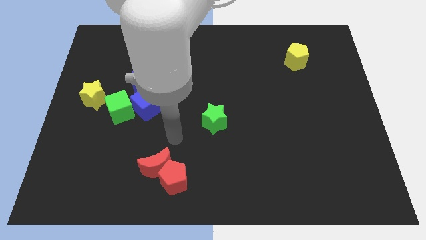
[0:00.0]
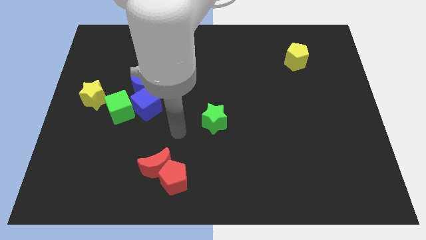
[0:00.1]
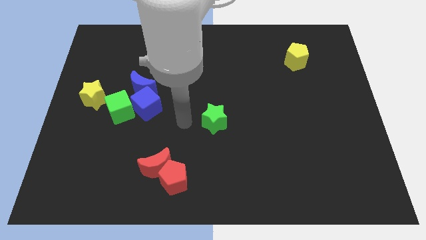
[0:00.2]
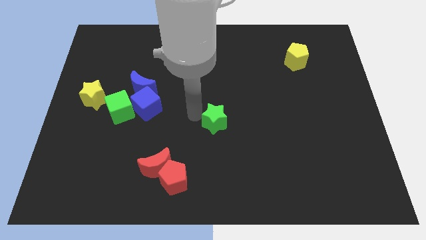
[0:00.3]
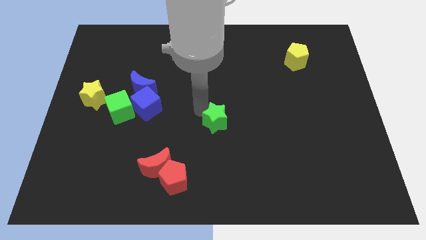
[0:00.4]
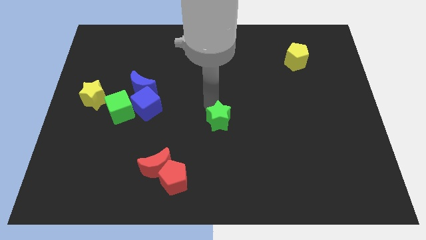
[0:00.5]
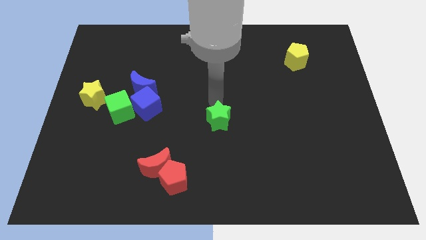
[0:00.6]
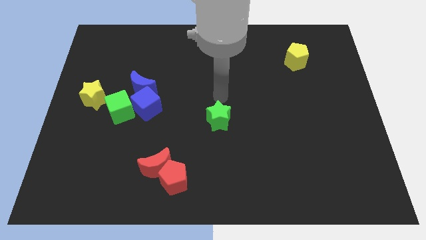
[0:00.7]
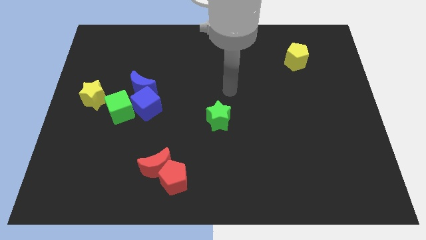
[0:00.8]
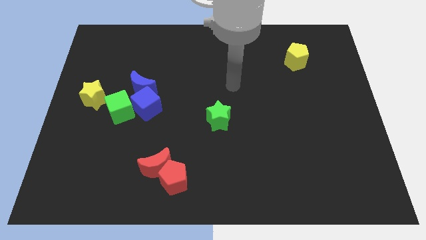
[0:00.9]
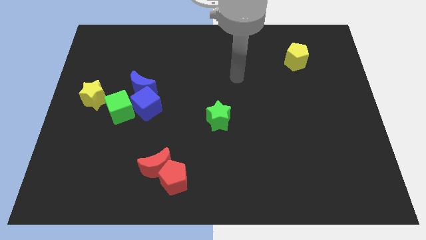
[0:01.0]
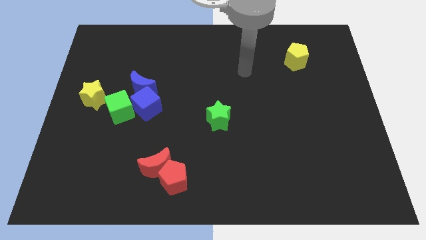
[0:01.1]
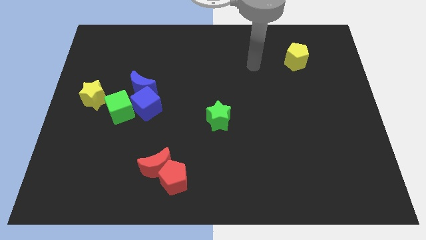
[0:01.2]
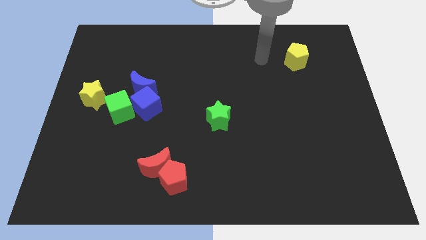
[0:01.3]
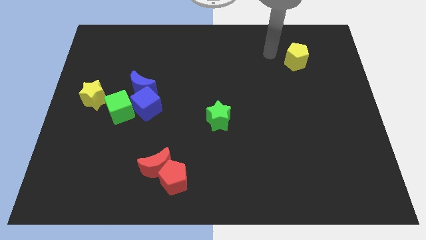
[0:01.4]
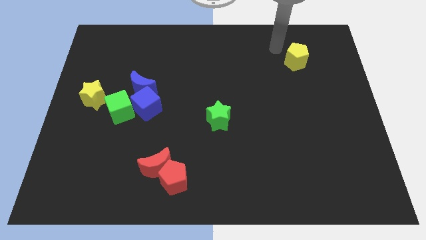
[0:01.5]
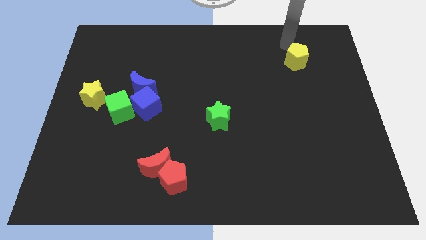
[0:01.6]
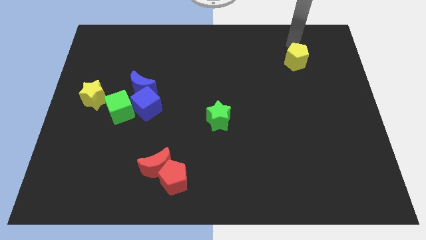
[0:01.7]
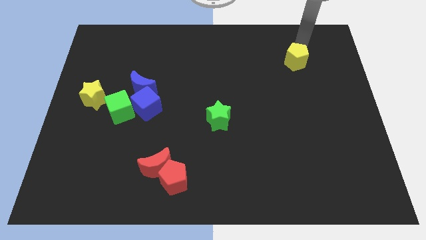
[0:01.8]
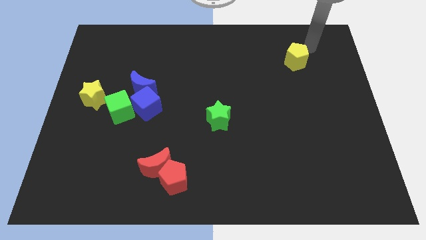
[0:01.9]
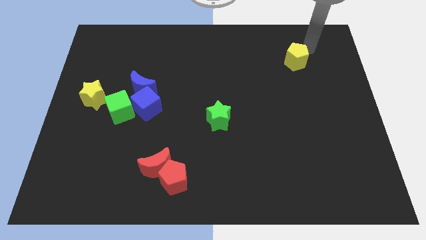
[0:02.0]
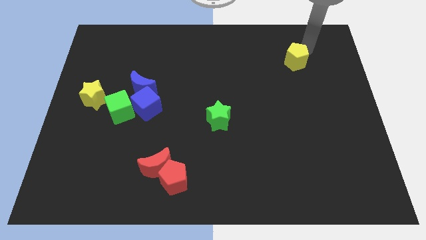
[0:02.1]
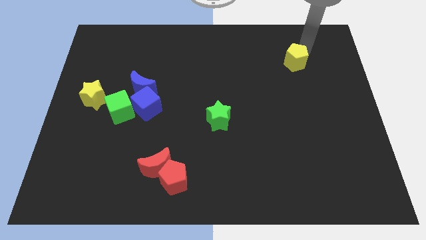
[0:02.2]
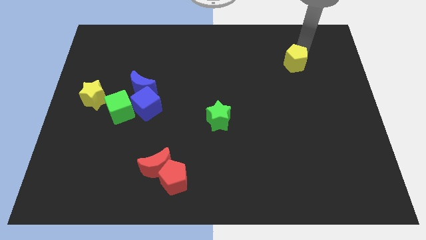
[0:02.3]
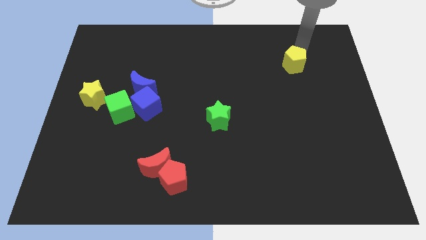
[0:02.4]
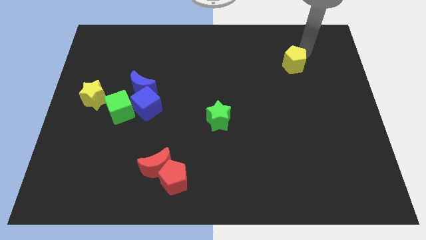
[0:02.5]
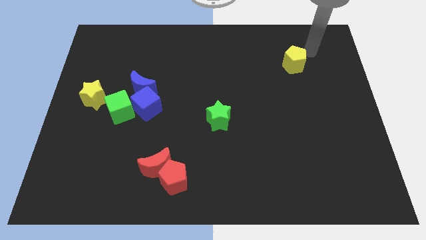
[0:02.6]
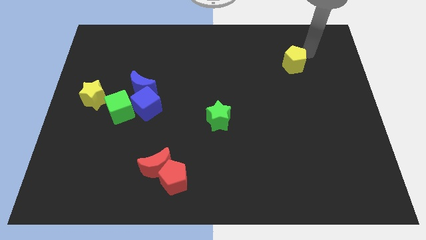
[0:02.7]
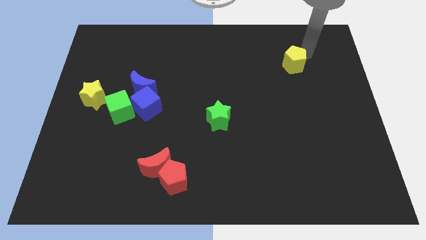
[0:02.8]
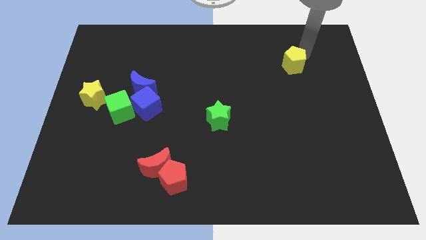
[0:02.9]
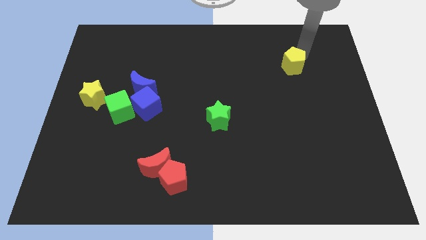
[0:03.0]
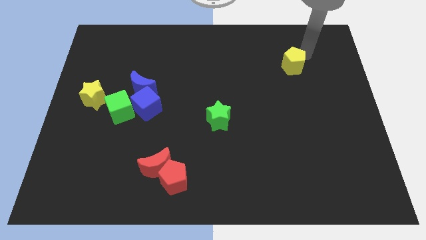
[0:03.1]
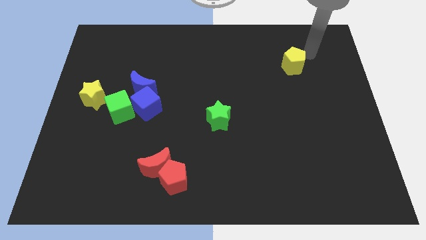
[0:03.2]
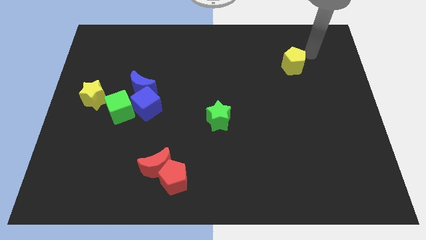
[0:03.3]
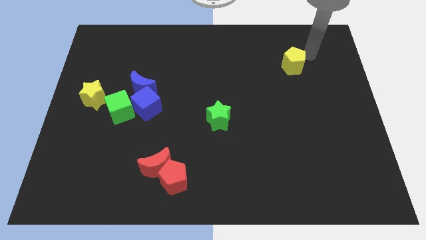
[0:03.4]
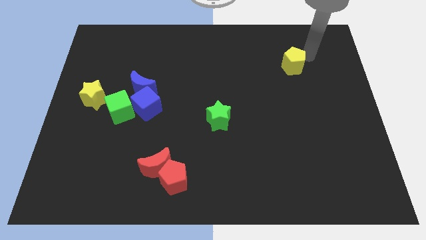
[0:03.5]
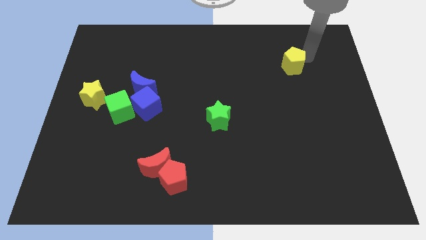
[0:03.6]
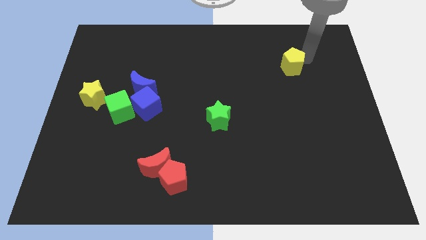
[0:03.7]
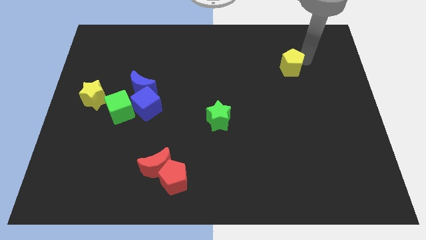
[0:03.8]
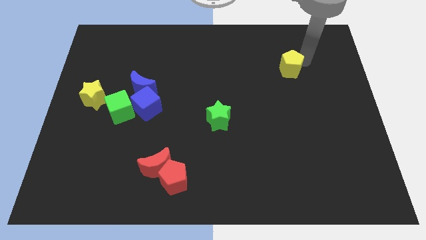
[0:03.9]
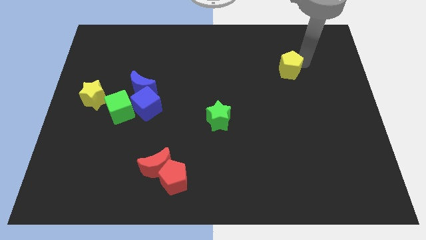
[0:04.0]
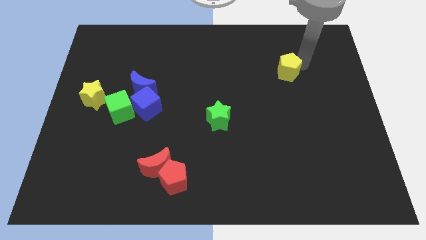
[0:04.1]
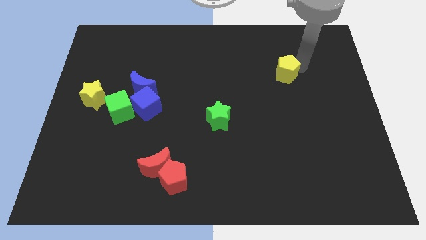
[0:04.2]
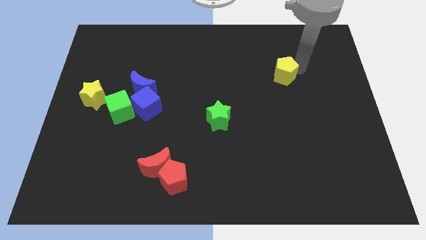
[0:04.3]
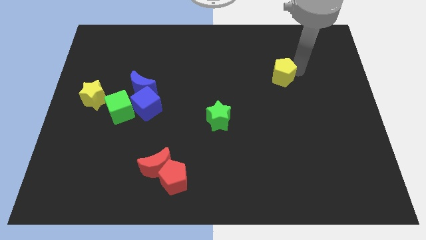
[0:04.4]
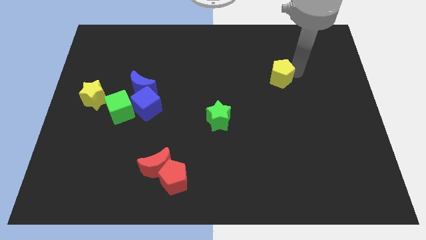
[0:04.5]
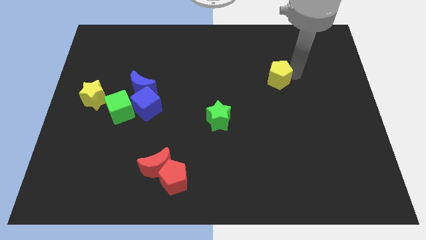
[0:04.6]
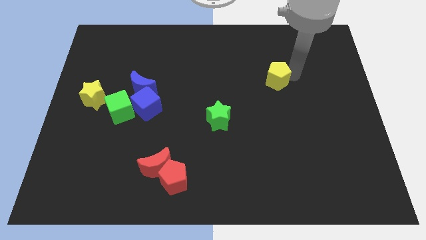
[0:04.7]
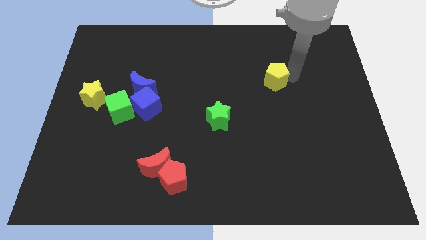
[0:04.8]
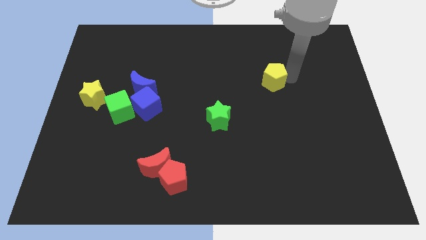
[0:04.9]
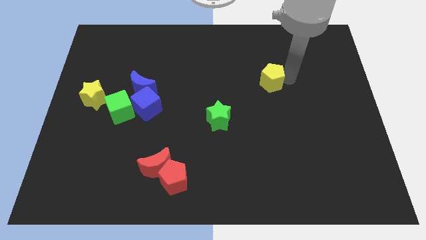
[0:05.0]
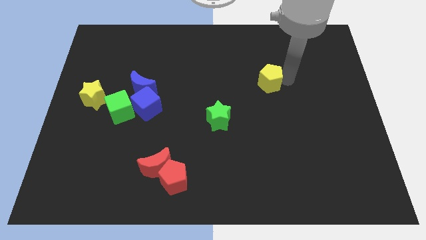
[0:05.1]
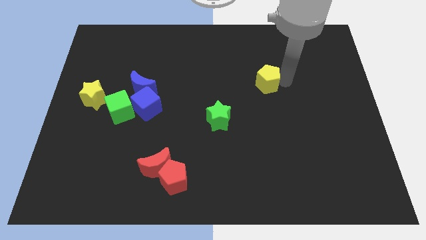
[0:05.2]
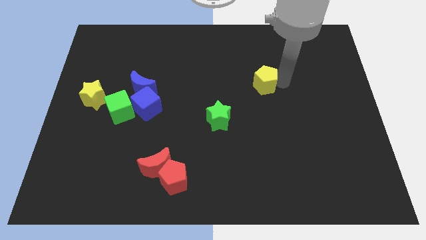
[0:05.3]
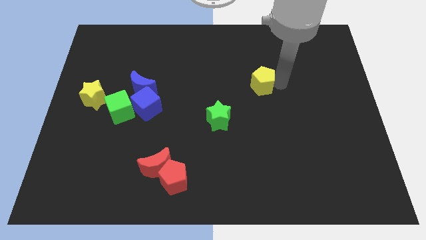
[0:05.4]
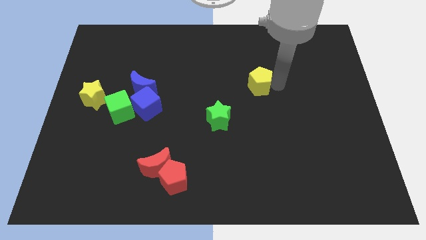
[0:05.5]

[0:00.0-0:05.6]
move the yellow pentagon to the middle
